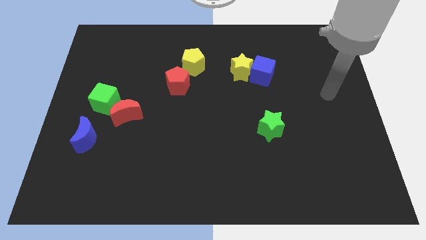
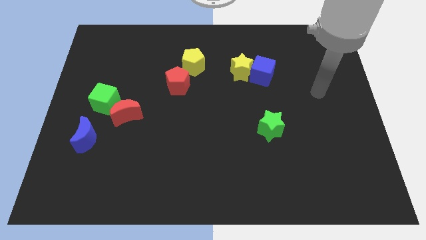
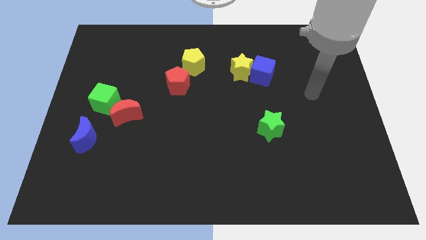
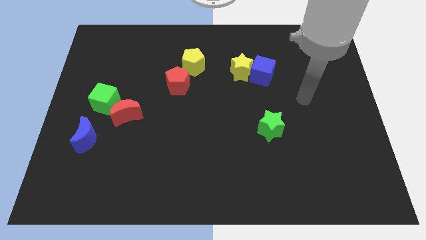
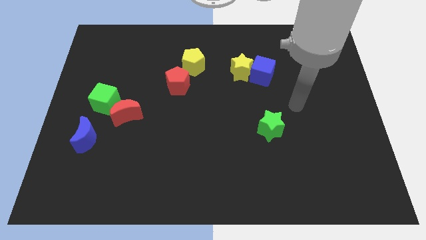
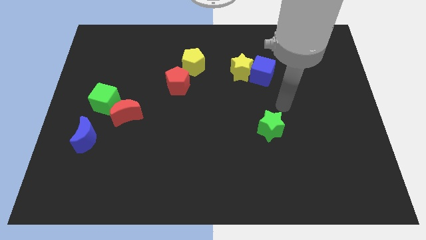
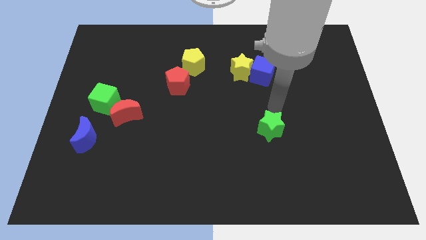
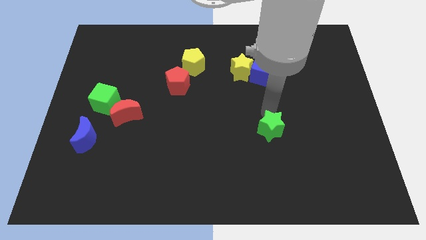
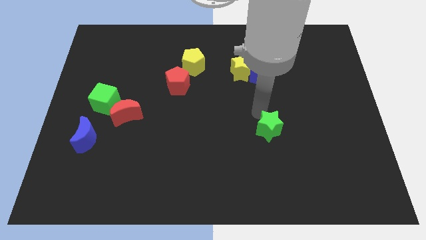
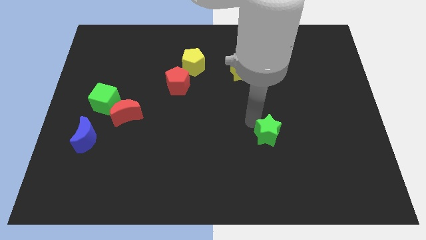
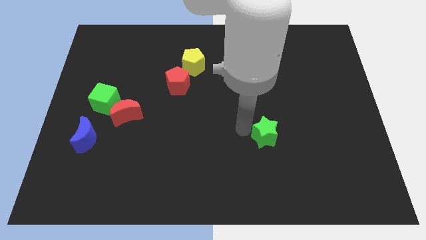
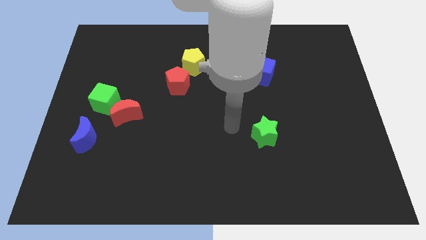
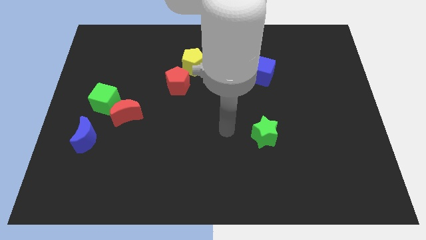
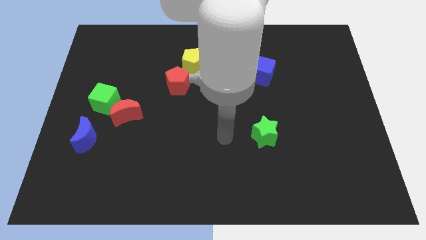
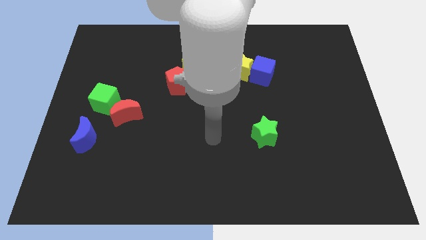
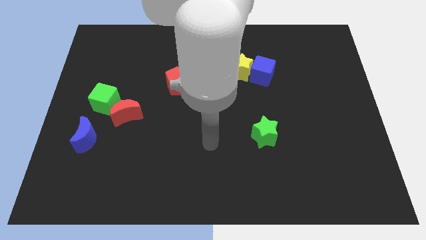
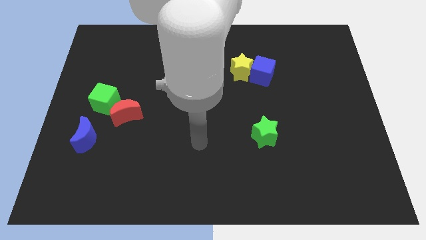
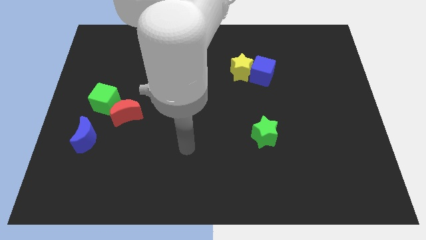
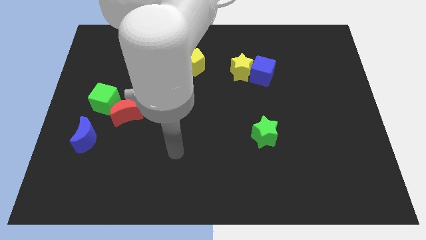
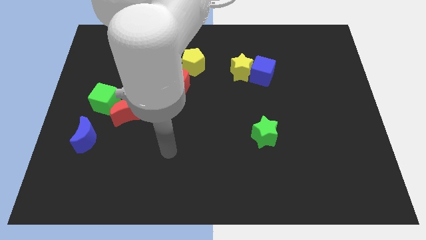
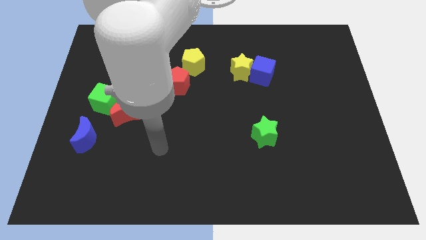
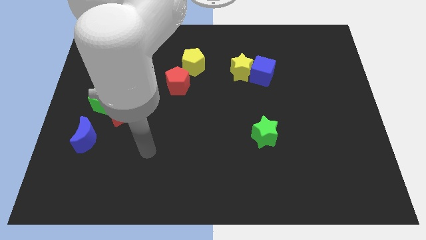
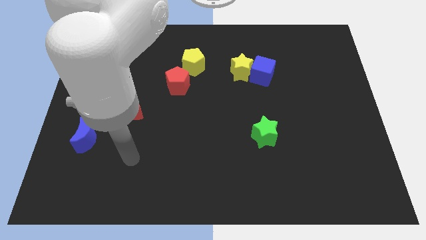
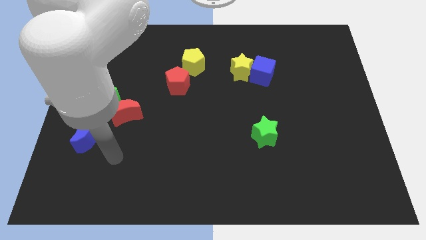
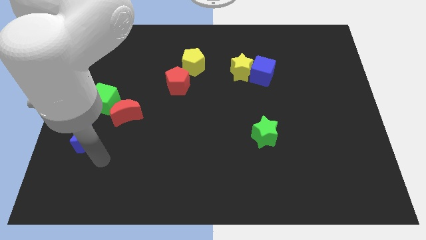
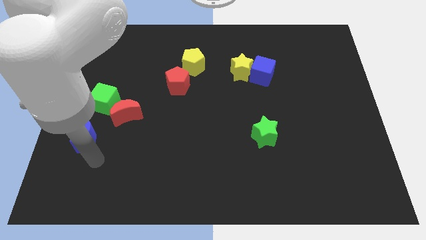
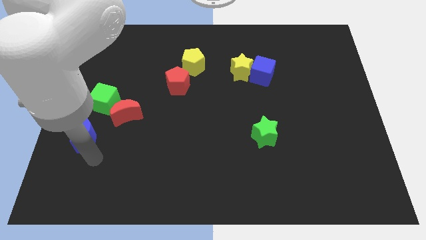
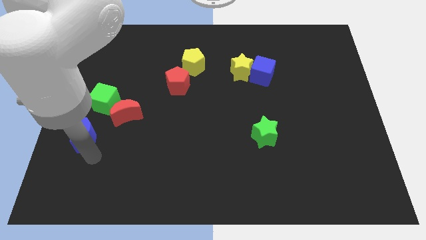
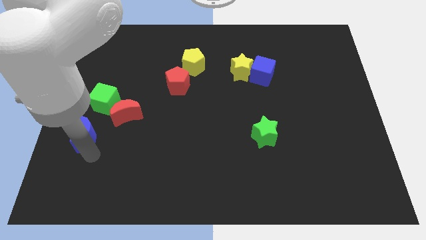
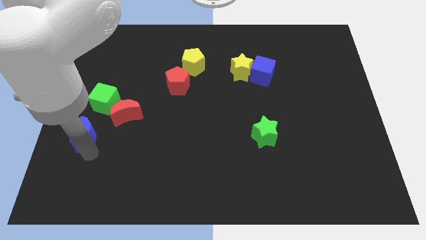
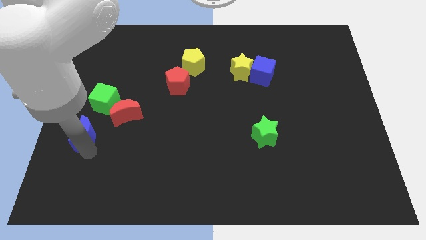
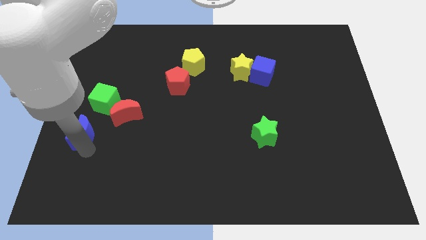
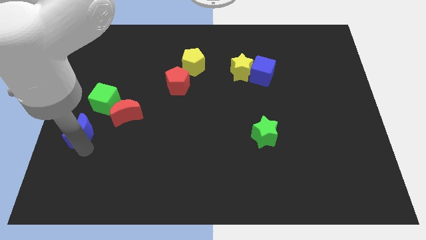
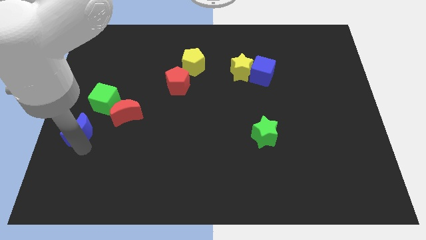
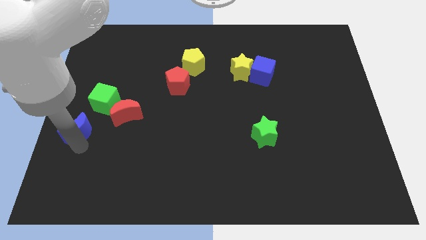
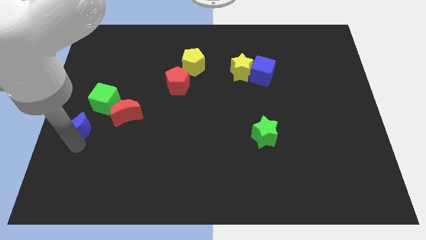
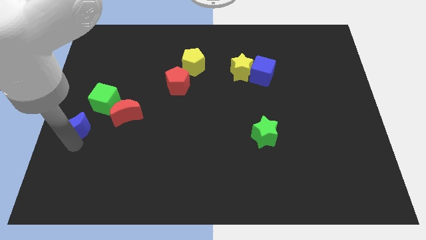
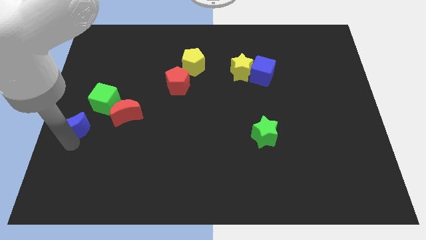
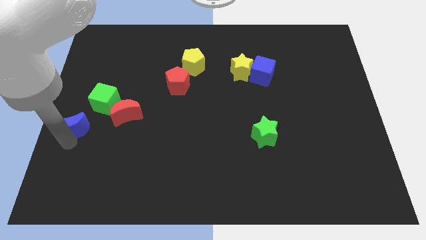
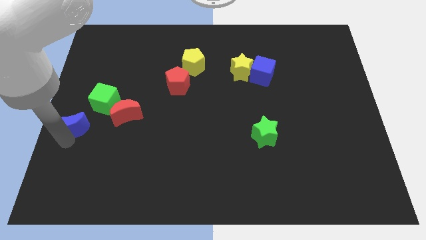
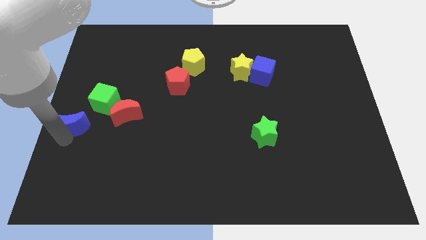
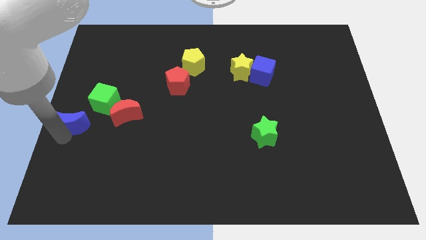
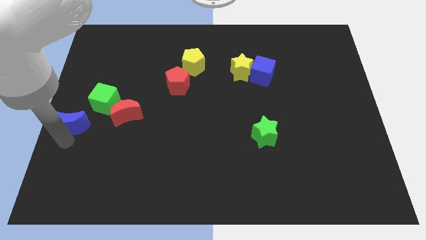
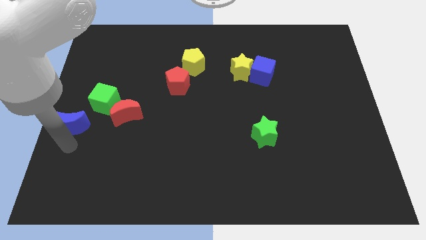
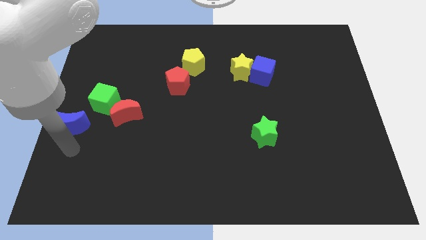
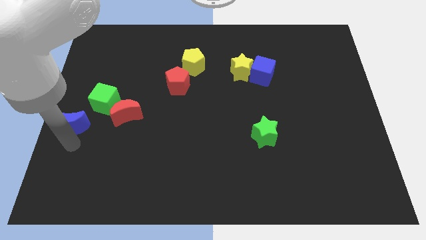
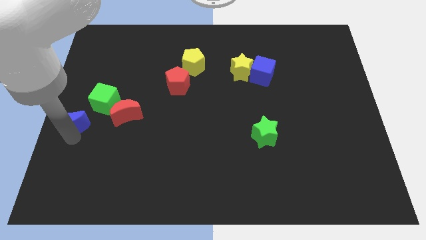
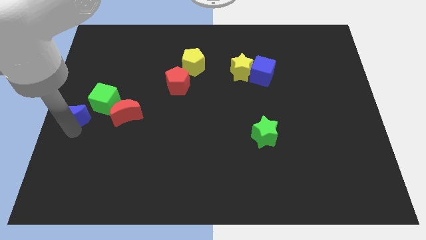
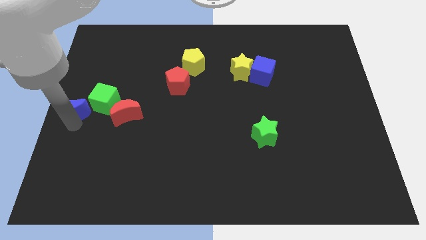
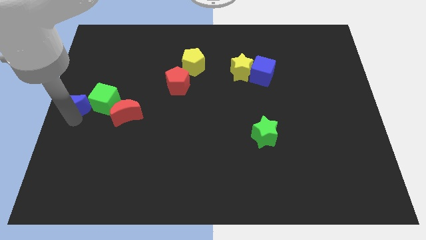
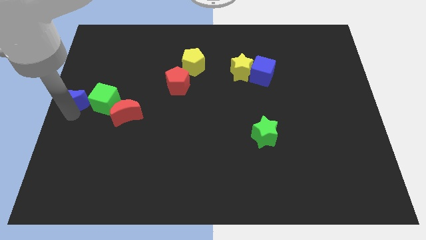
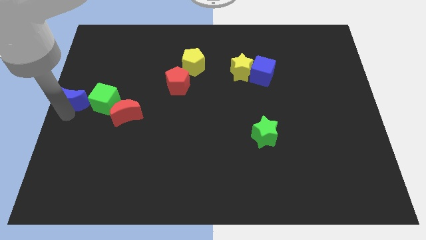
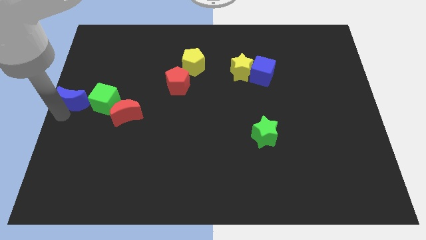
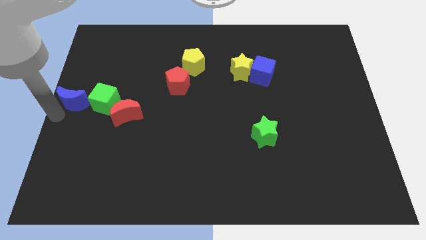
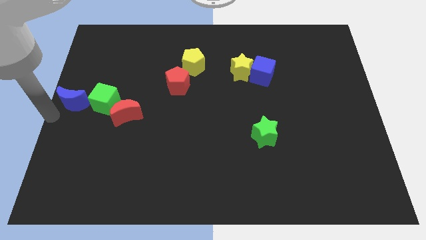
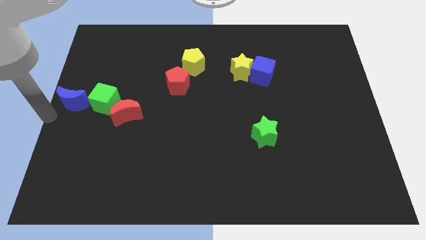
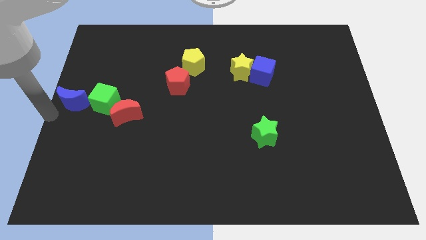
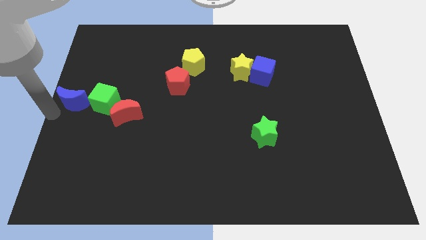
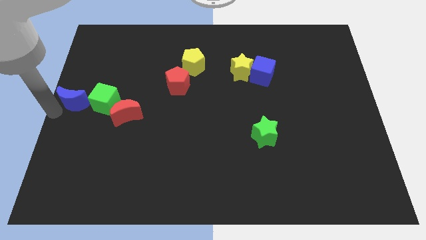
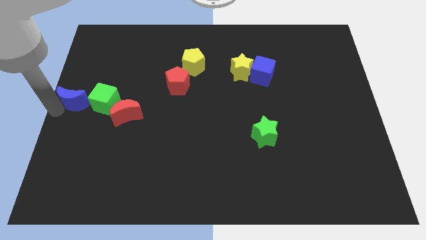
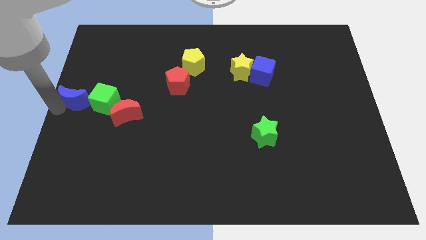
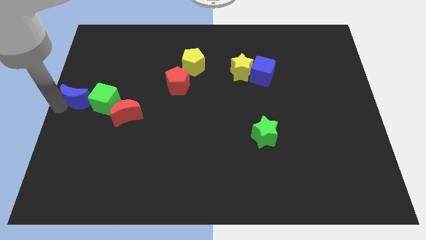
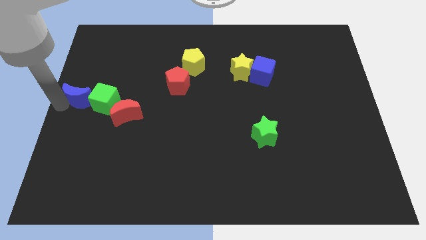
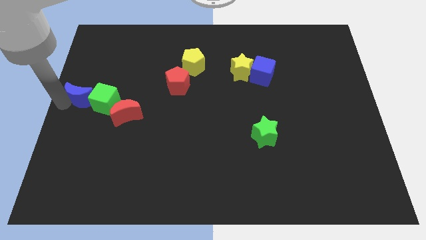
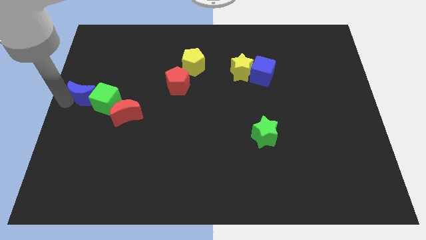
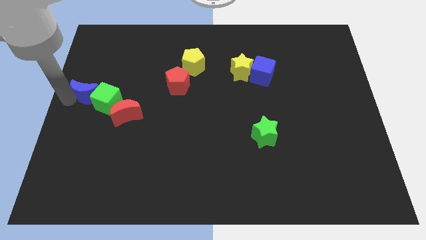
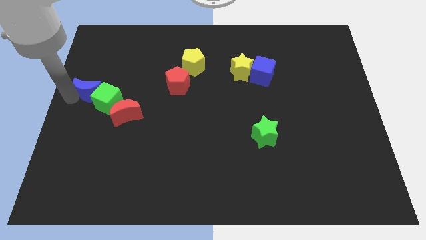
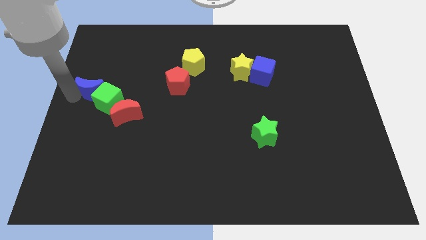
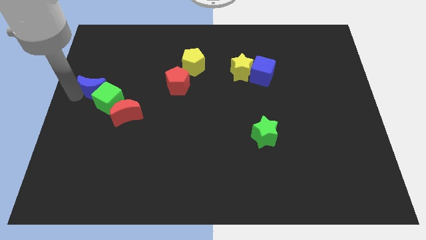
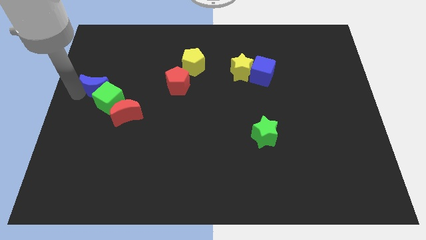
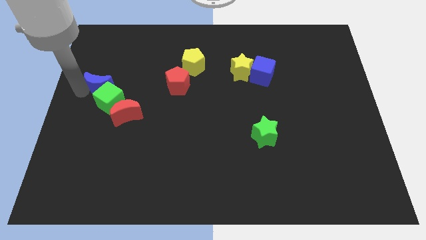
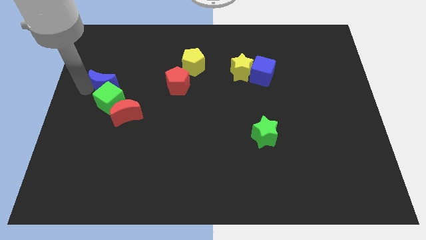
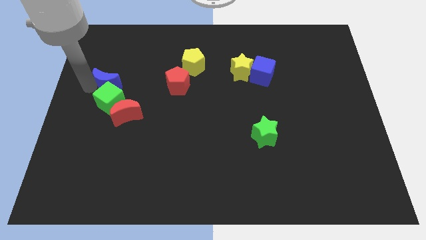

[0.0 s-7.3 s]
slide the blue moon a little diagonally upwards and right

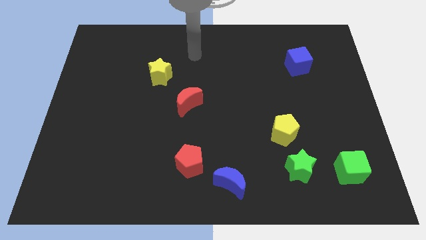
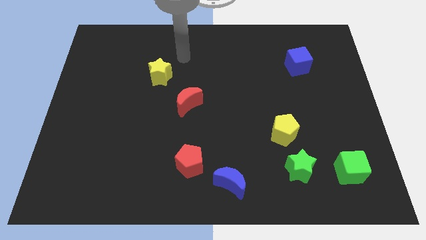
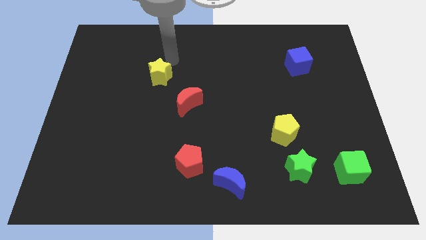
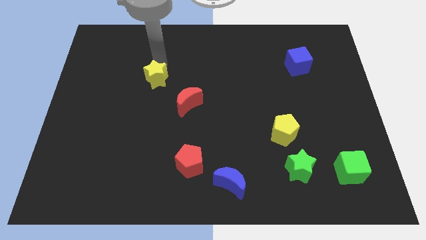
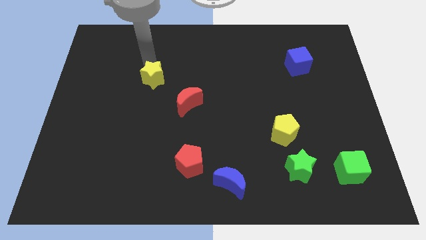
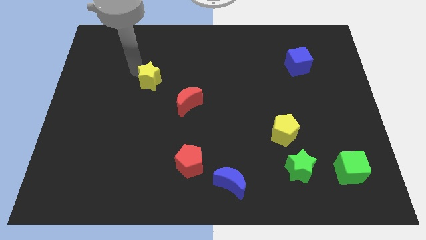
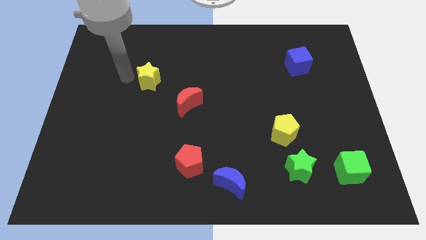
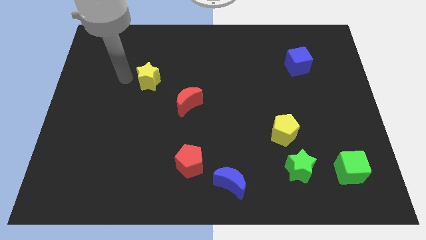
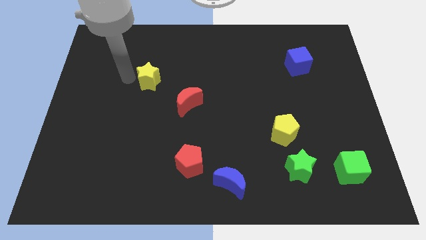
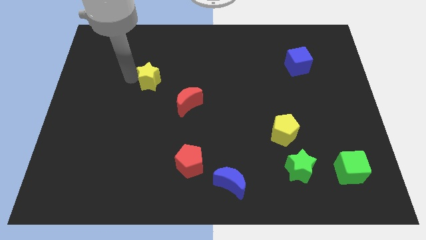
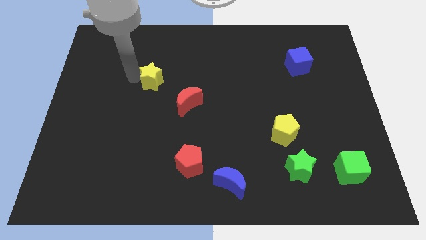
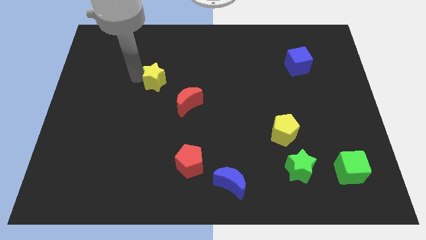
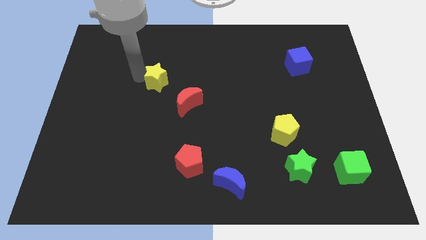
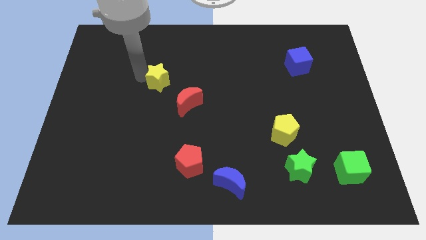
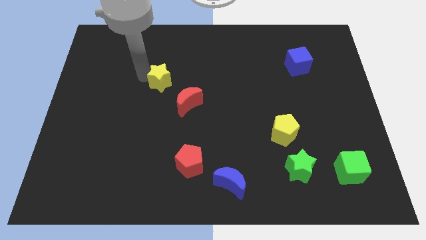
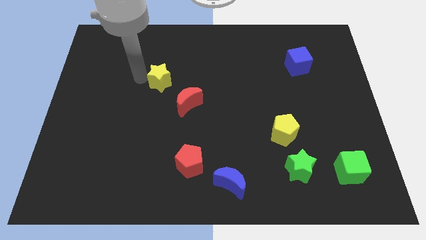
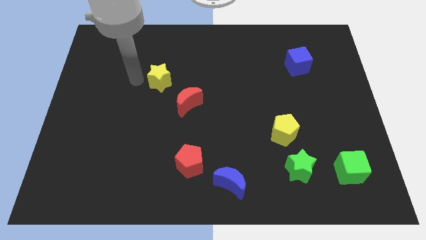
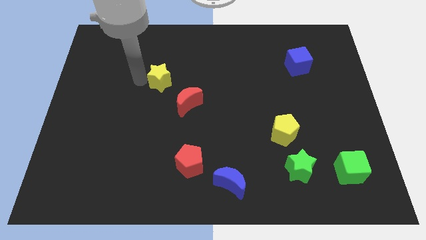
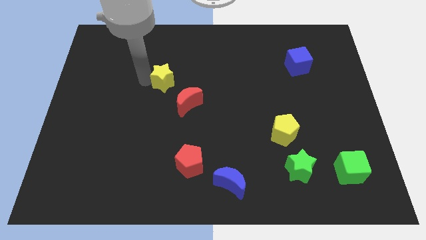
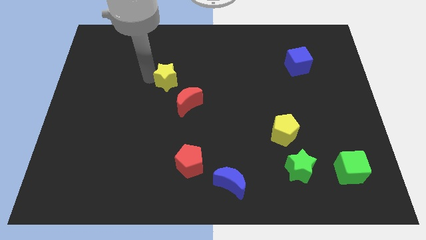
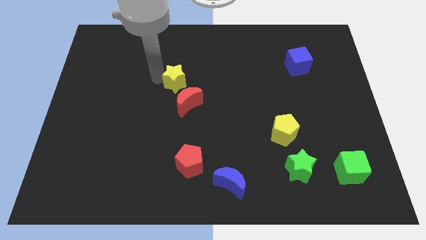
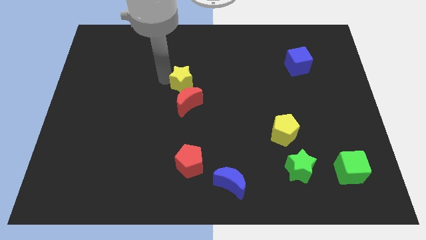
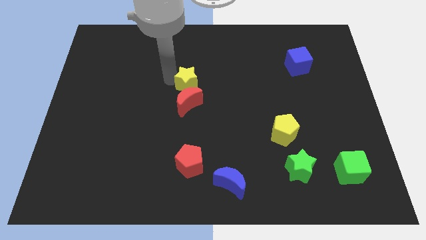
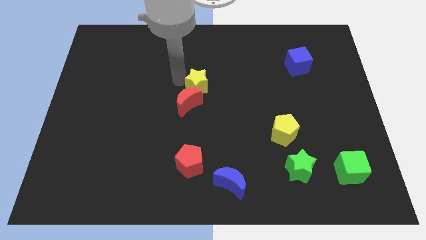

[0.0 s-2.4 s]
slide the yellow star a bit down and right
